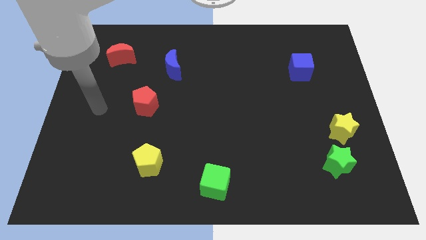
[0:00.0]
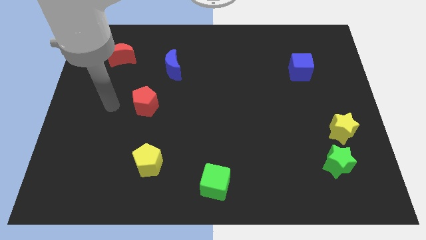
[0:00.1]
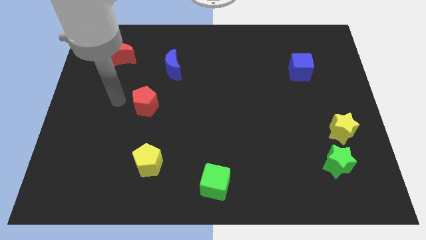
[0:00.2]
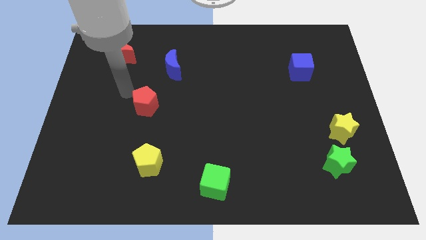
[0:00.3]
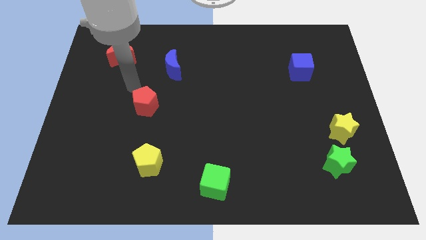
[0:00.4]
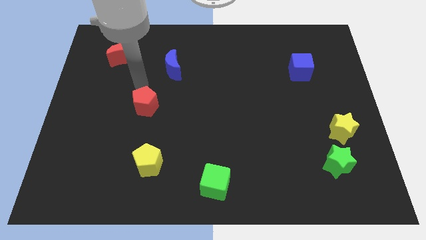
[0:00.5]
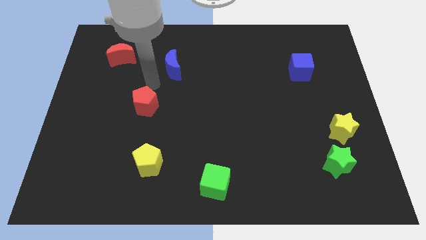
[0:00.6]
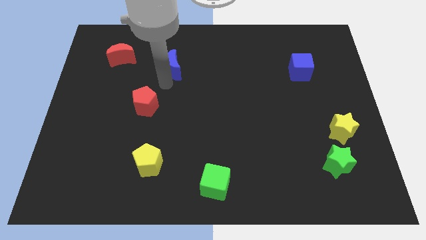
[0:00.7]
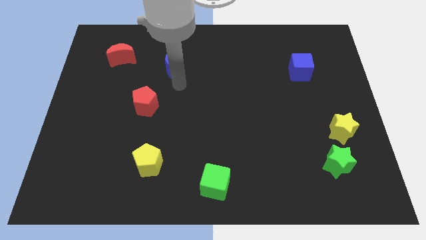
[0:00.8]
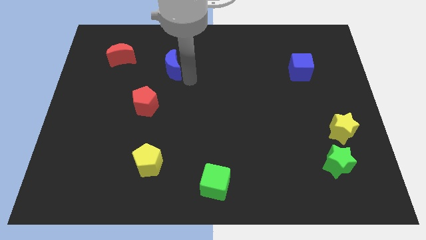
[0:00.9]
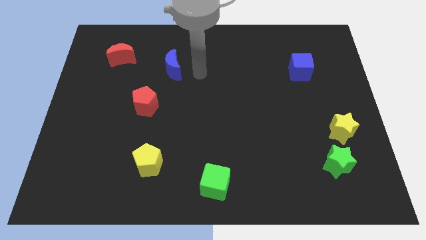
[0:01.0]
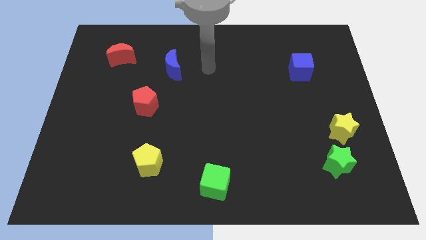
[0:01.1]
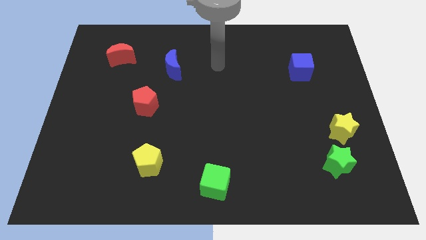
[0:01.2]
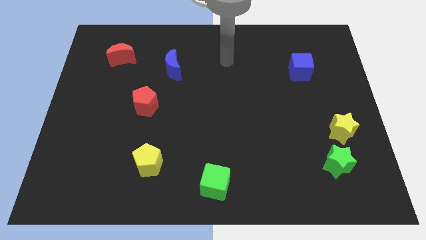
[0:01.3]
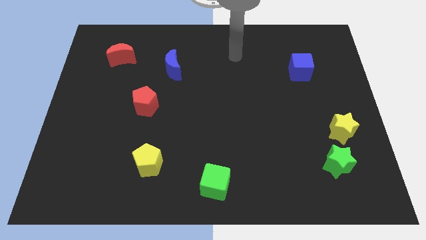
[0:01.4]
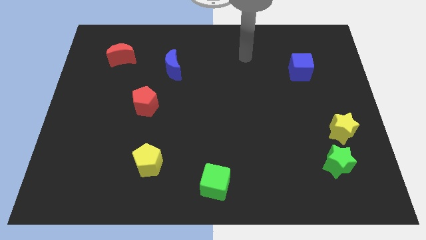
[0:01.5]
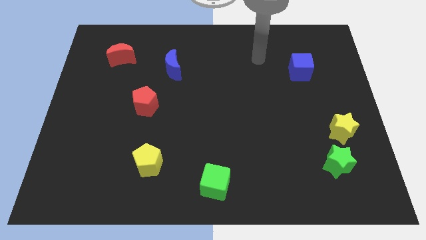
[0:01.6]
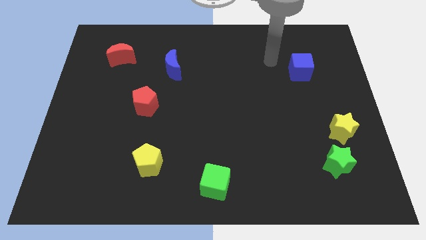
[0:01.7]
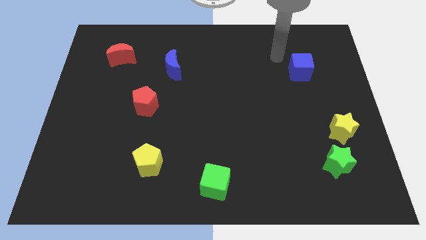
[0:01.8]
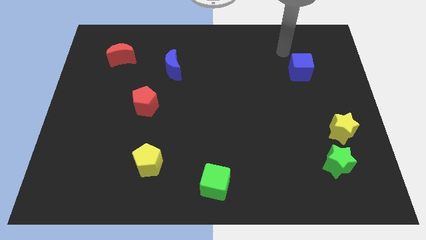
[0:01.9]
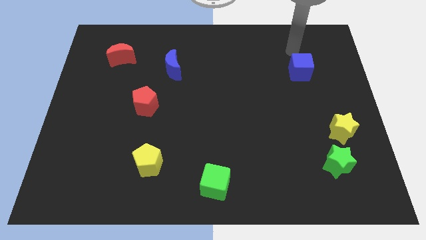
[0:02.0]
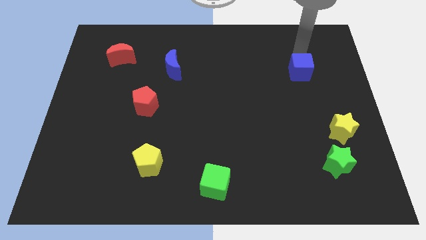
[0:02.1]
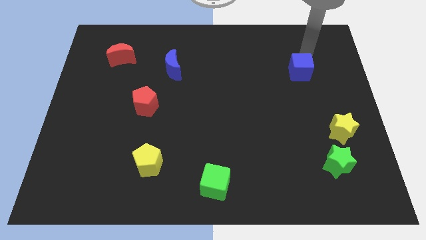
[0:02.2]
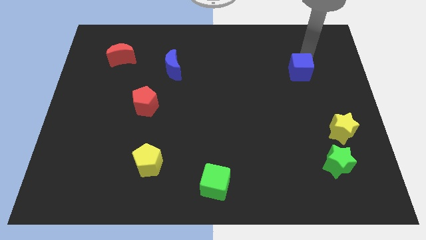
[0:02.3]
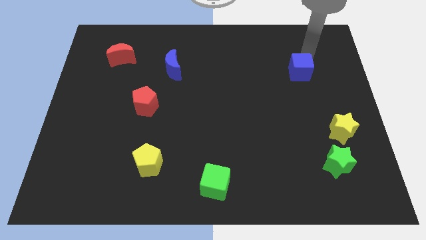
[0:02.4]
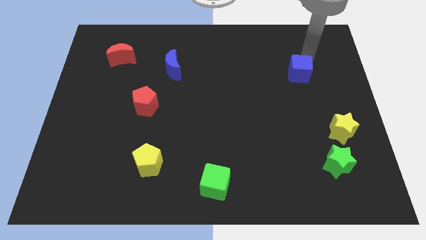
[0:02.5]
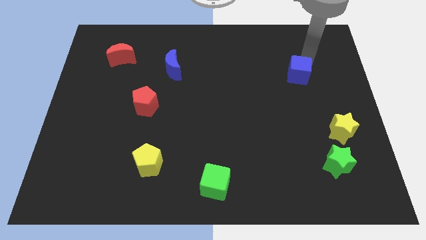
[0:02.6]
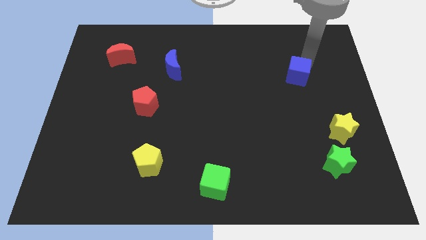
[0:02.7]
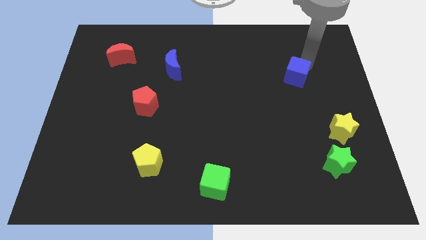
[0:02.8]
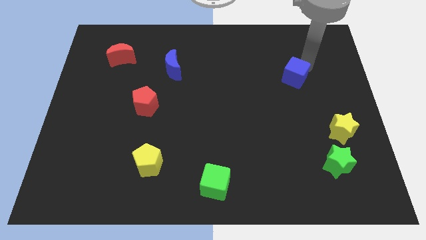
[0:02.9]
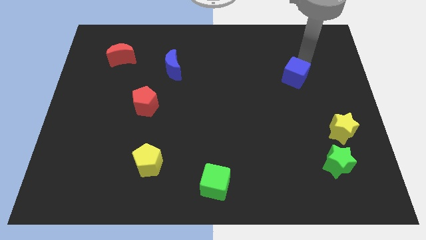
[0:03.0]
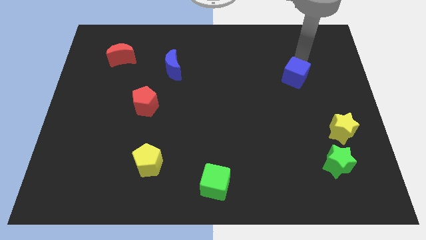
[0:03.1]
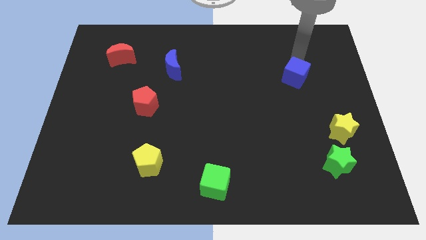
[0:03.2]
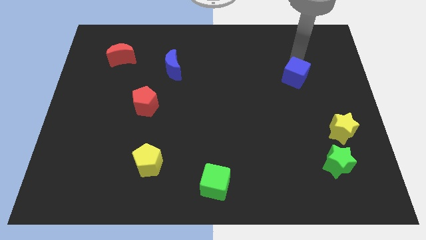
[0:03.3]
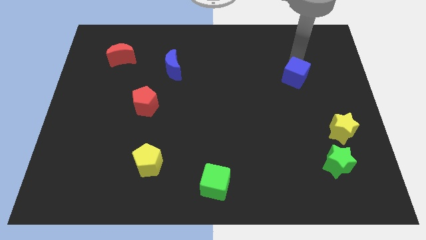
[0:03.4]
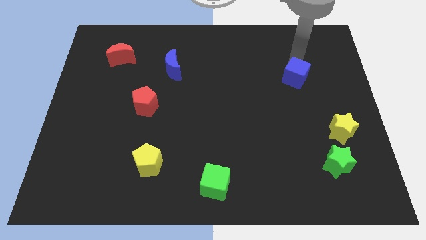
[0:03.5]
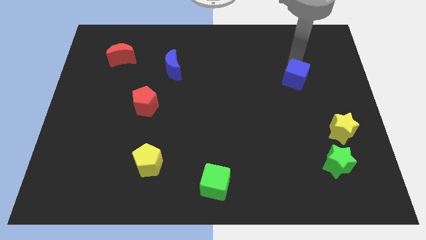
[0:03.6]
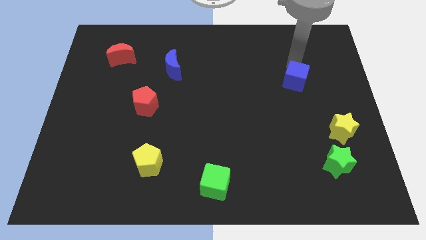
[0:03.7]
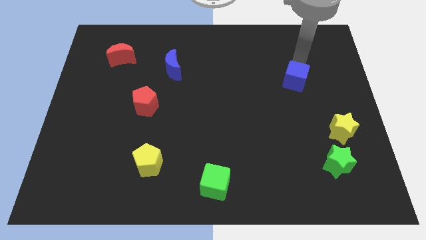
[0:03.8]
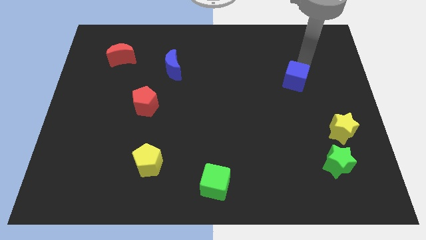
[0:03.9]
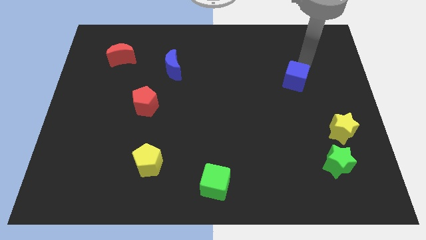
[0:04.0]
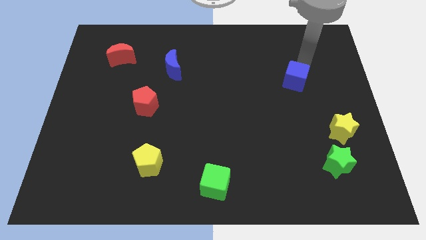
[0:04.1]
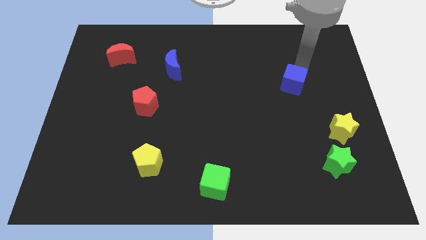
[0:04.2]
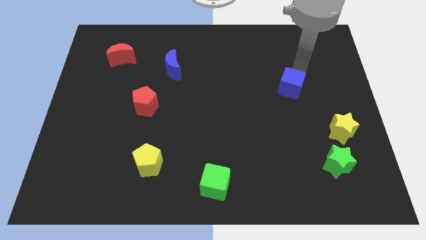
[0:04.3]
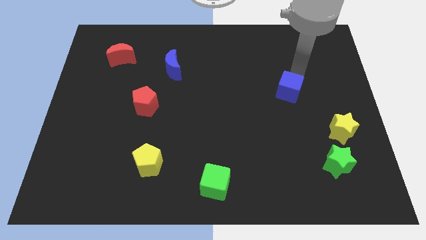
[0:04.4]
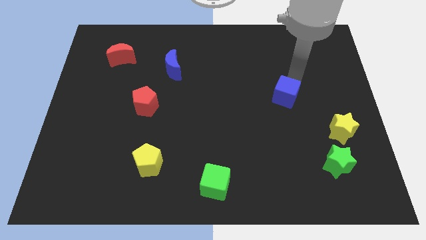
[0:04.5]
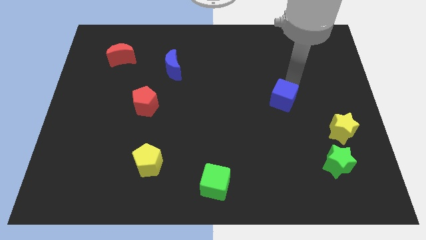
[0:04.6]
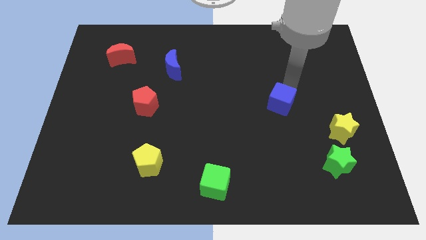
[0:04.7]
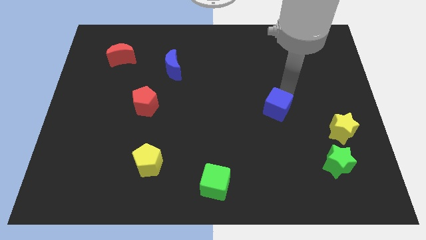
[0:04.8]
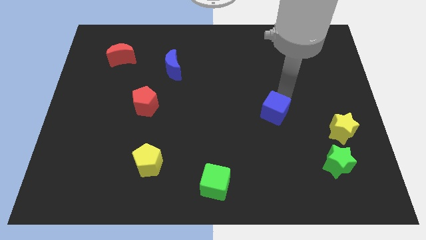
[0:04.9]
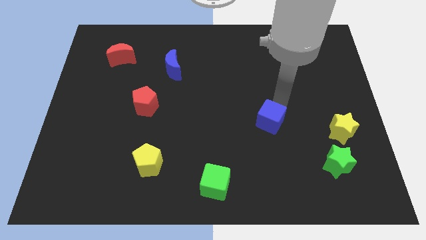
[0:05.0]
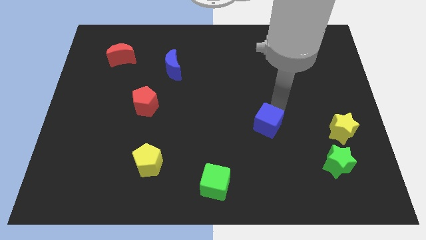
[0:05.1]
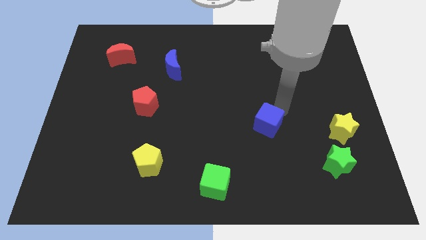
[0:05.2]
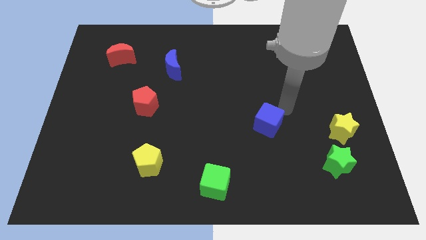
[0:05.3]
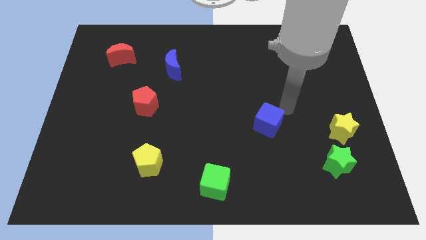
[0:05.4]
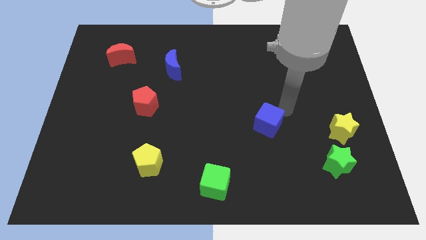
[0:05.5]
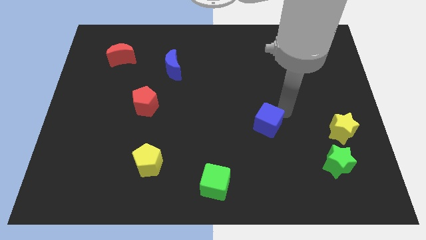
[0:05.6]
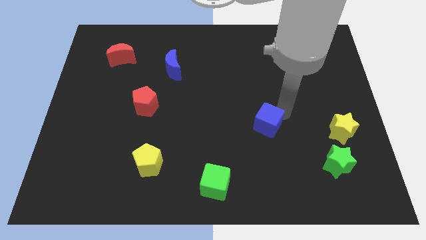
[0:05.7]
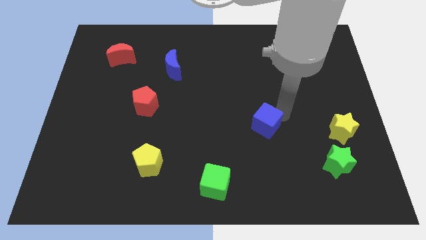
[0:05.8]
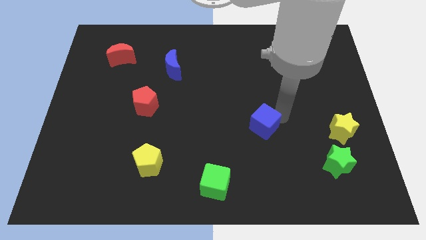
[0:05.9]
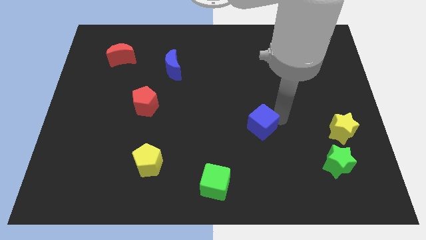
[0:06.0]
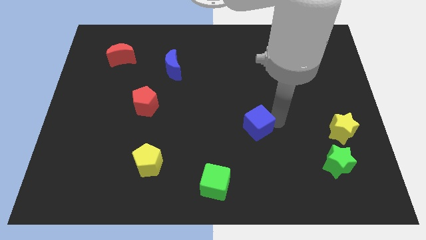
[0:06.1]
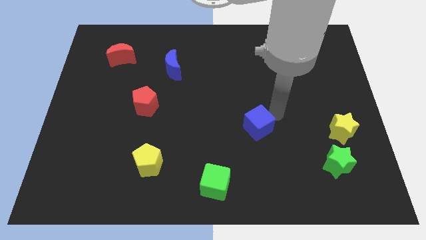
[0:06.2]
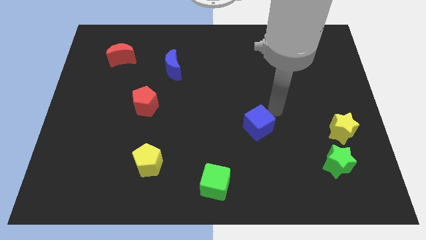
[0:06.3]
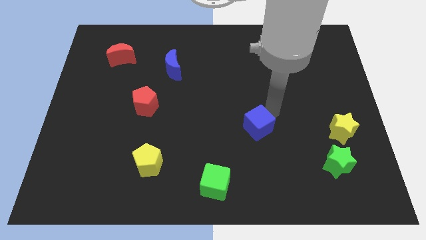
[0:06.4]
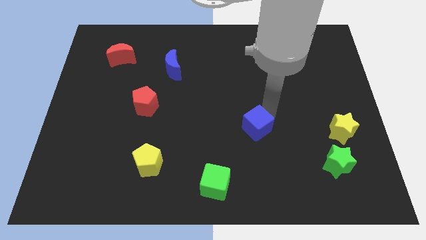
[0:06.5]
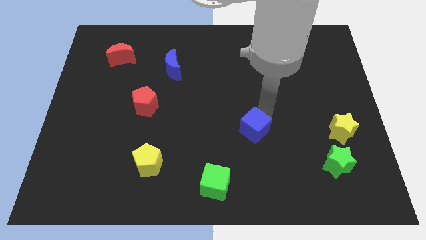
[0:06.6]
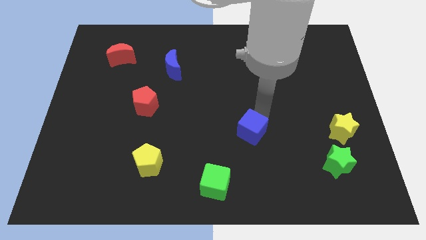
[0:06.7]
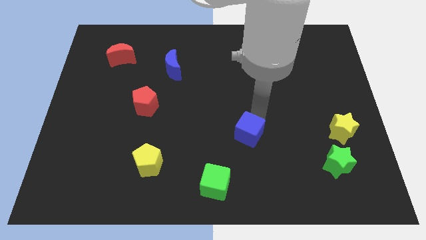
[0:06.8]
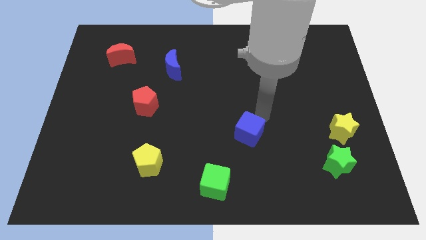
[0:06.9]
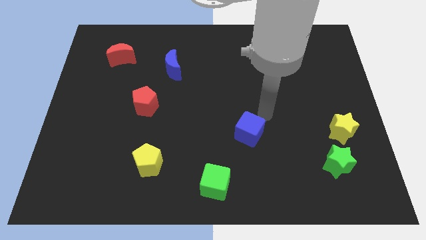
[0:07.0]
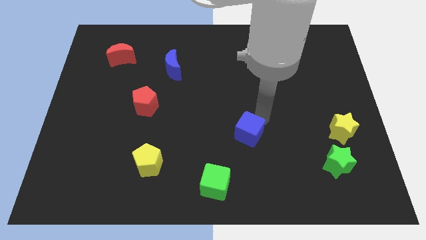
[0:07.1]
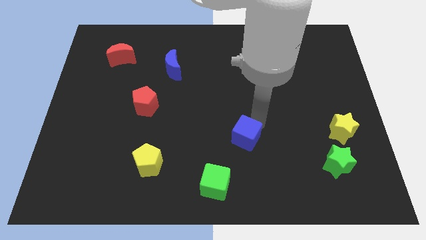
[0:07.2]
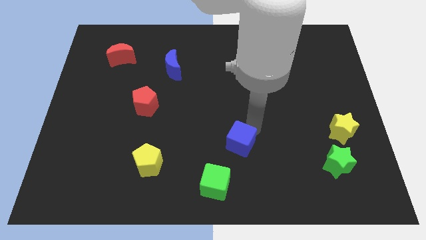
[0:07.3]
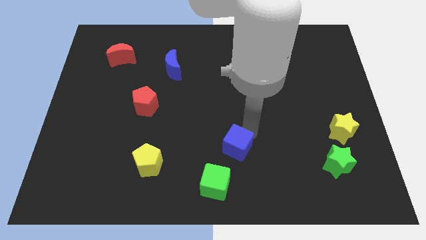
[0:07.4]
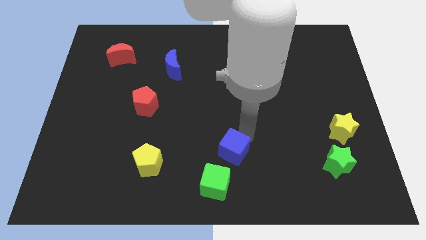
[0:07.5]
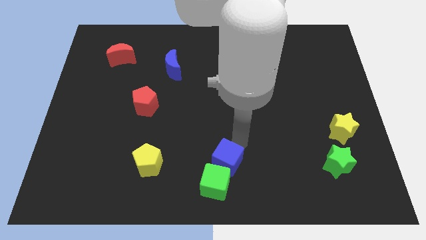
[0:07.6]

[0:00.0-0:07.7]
slide the blue cube to the green cube

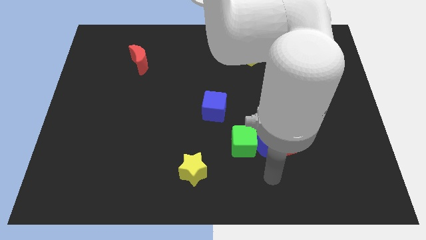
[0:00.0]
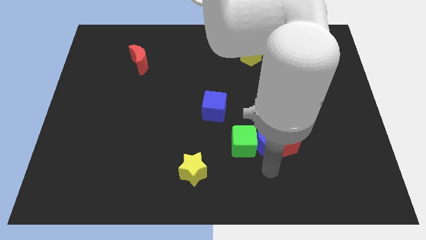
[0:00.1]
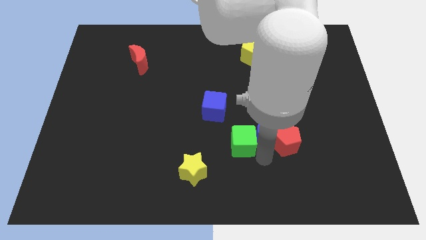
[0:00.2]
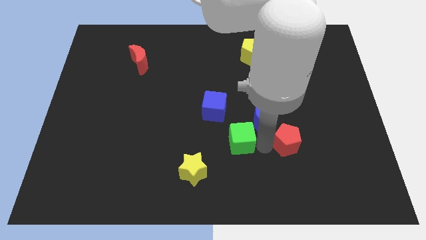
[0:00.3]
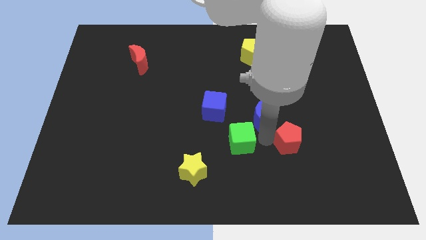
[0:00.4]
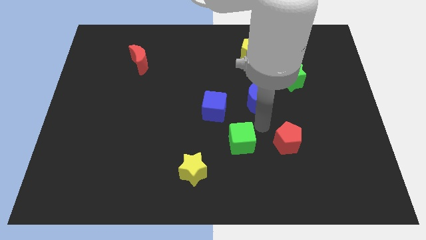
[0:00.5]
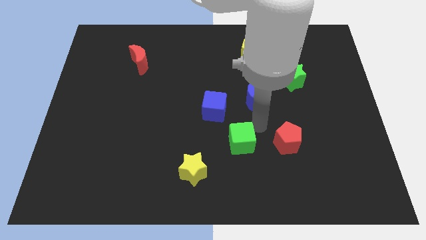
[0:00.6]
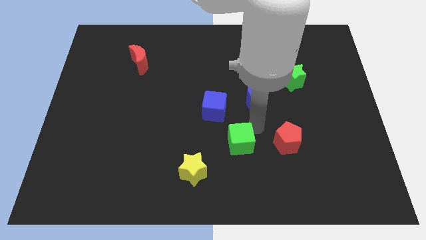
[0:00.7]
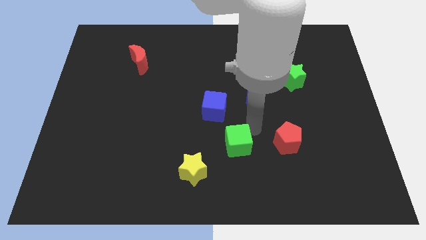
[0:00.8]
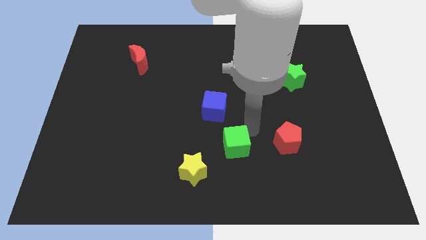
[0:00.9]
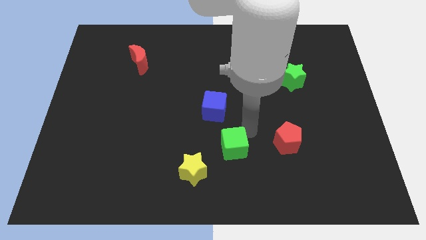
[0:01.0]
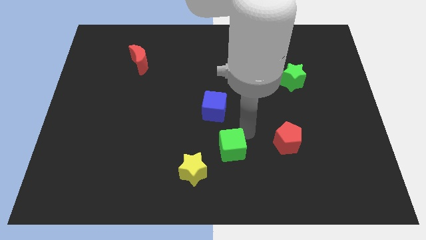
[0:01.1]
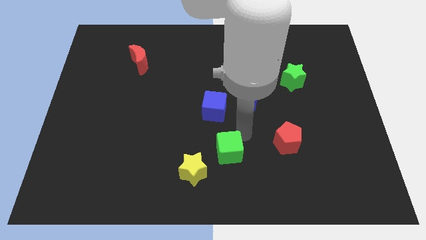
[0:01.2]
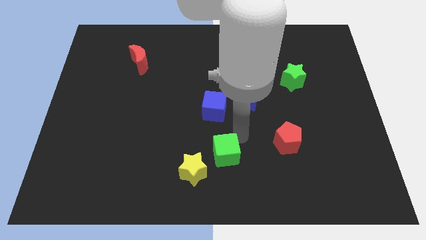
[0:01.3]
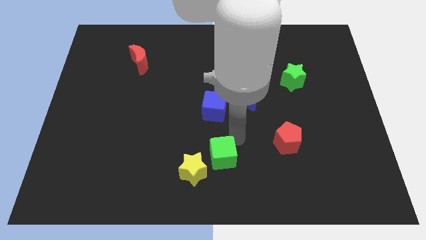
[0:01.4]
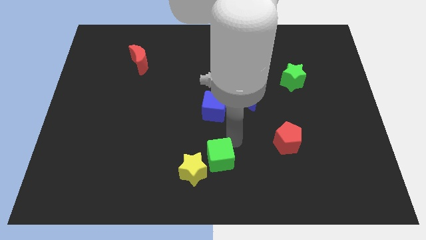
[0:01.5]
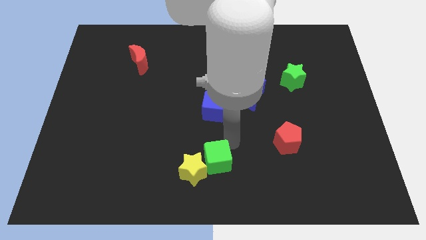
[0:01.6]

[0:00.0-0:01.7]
slide the green cube to the yellow star
